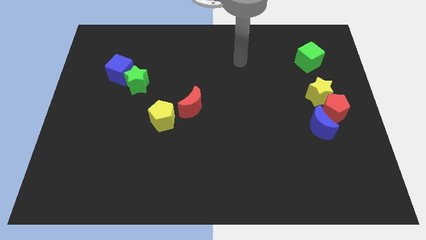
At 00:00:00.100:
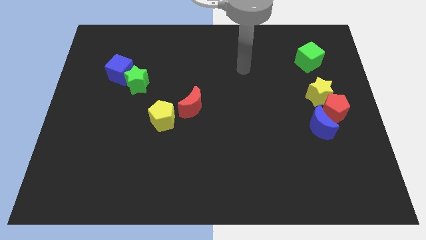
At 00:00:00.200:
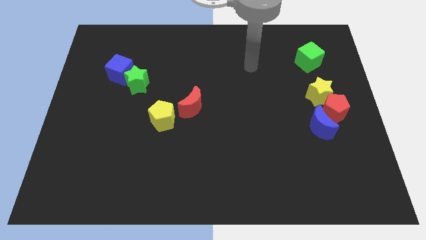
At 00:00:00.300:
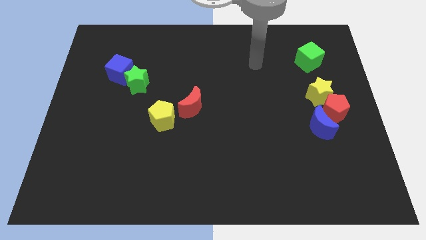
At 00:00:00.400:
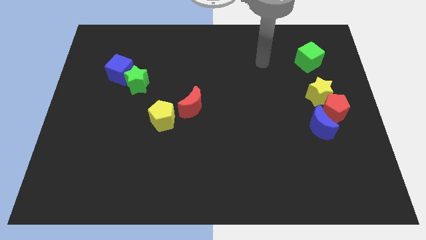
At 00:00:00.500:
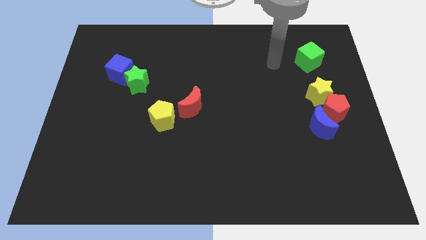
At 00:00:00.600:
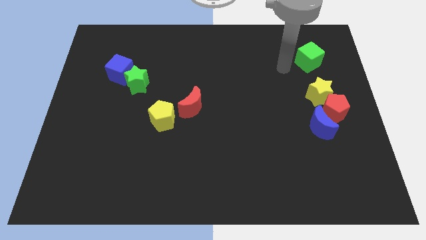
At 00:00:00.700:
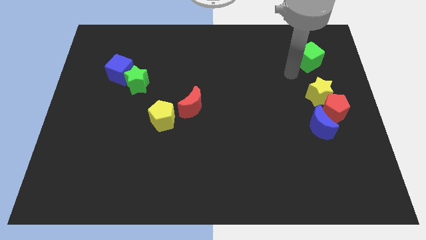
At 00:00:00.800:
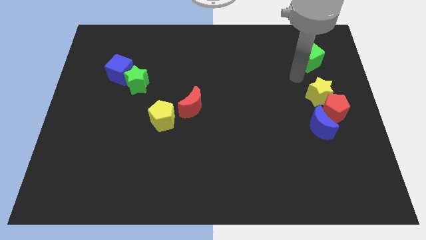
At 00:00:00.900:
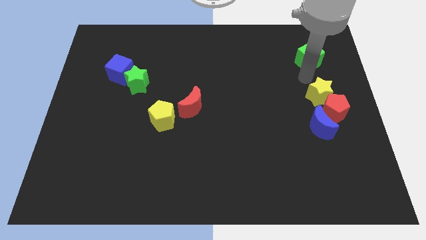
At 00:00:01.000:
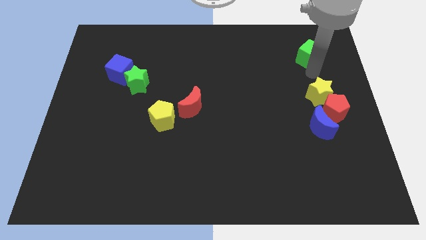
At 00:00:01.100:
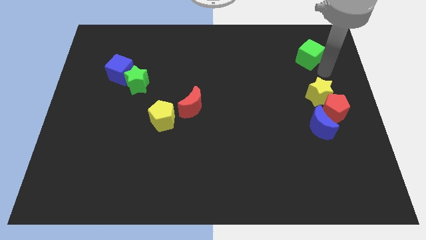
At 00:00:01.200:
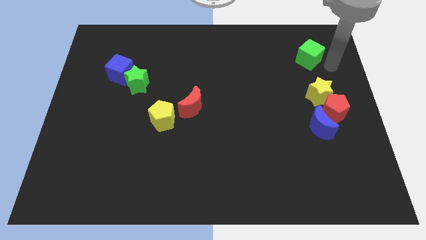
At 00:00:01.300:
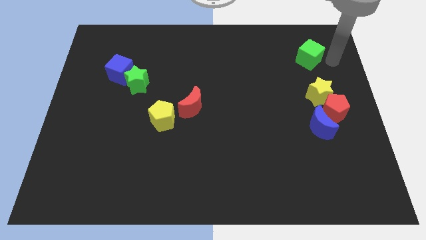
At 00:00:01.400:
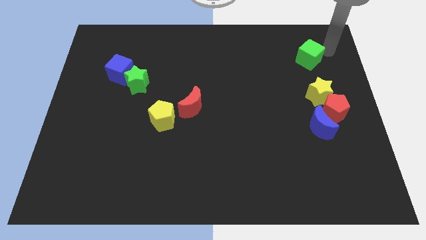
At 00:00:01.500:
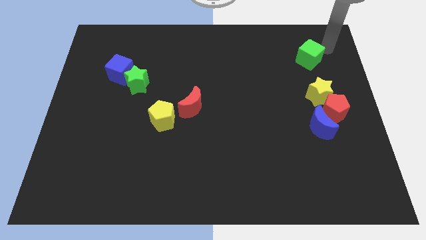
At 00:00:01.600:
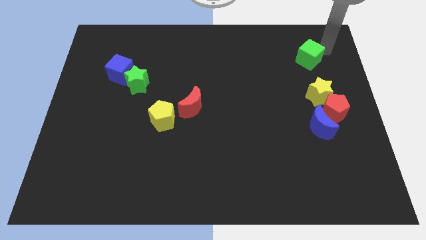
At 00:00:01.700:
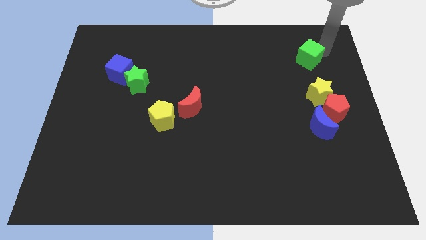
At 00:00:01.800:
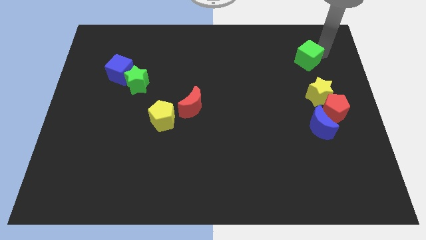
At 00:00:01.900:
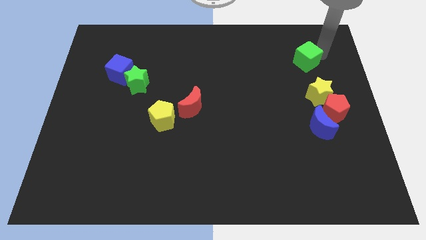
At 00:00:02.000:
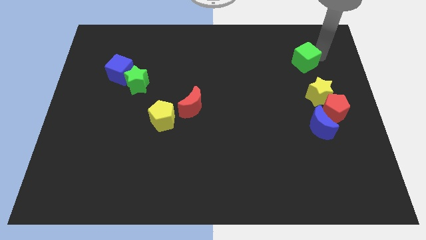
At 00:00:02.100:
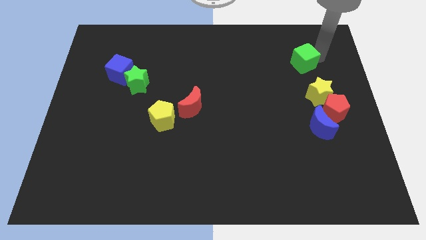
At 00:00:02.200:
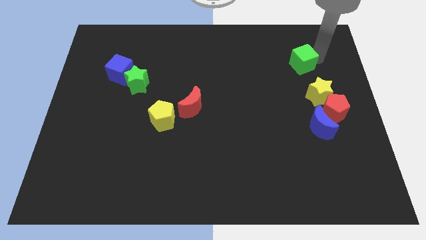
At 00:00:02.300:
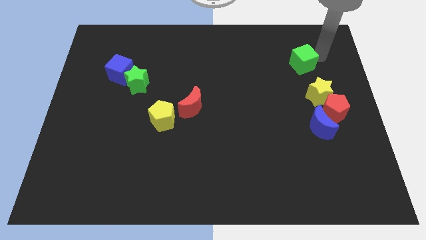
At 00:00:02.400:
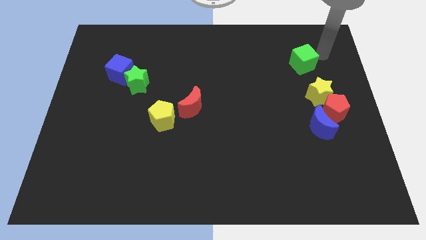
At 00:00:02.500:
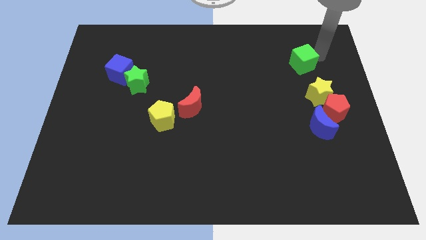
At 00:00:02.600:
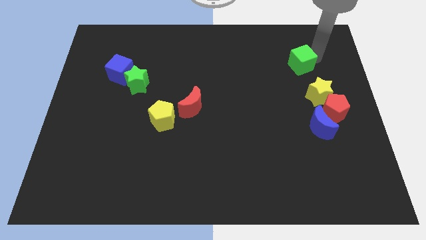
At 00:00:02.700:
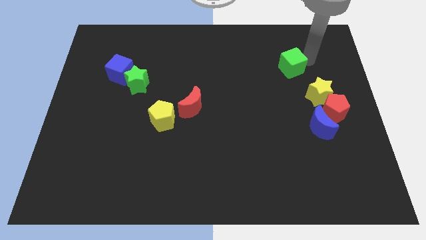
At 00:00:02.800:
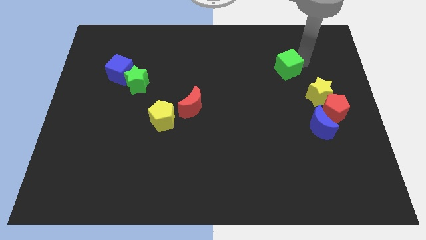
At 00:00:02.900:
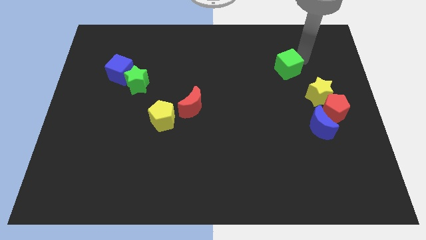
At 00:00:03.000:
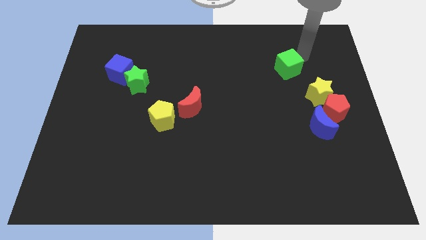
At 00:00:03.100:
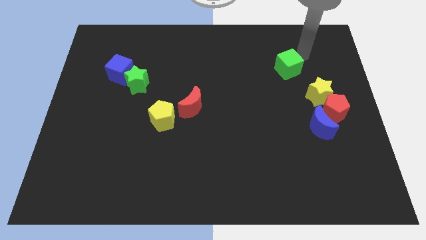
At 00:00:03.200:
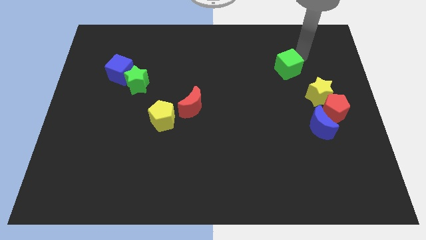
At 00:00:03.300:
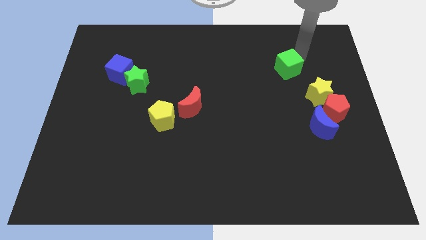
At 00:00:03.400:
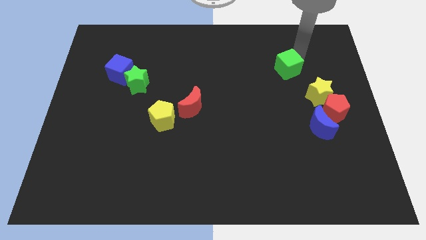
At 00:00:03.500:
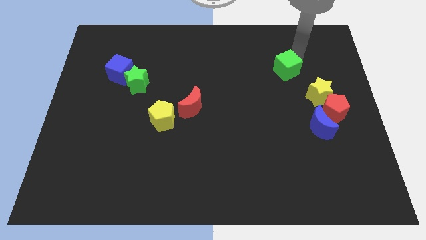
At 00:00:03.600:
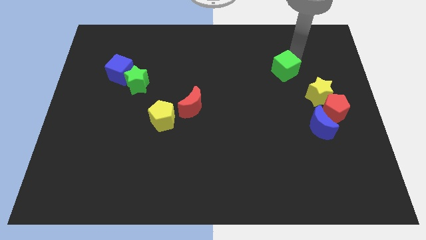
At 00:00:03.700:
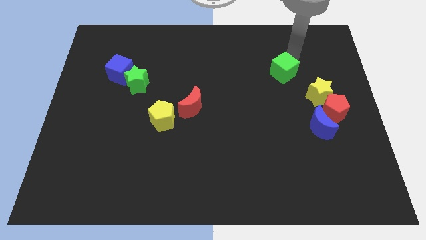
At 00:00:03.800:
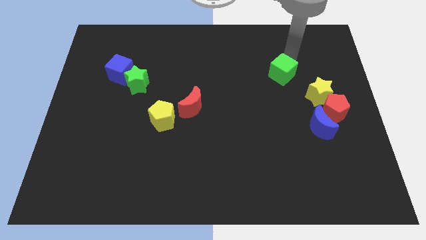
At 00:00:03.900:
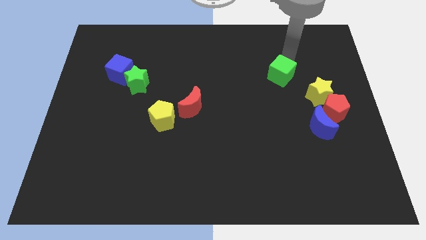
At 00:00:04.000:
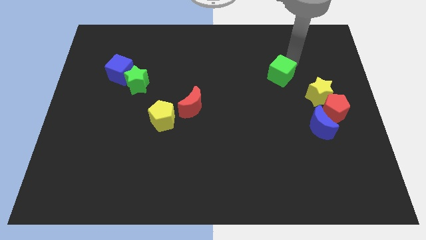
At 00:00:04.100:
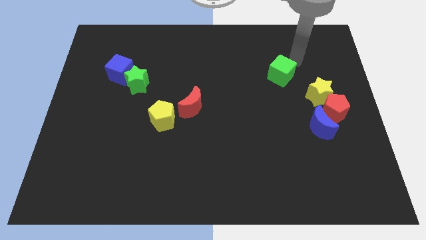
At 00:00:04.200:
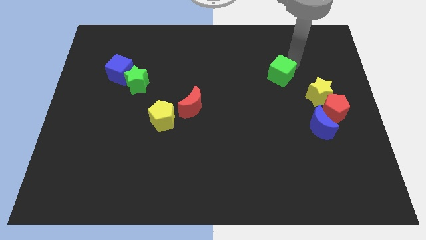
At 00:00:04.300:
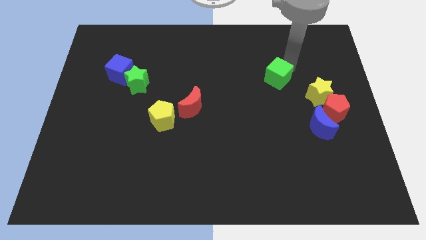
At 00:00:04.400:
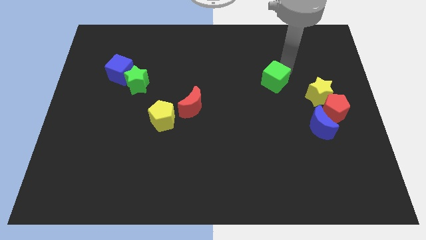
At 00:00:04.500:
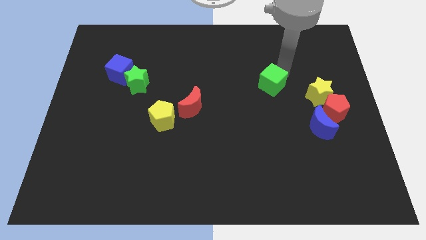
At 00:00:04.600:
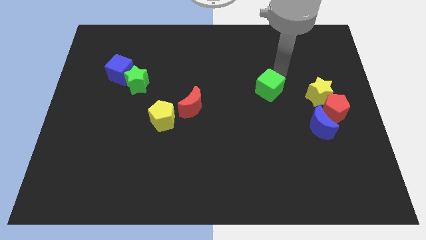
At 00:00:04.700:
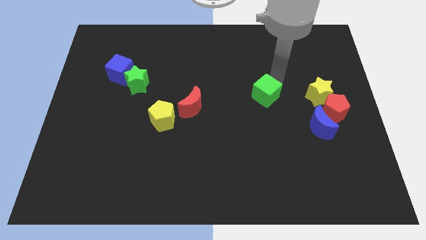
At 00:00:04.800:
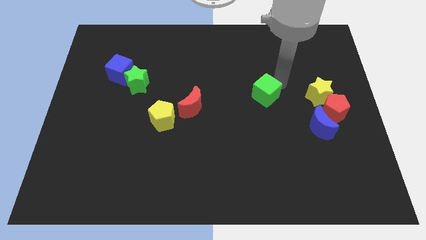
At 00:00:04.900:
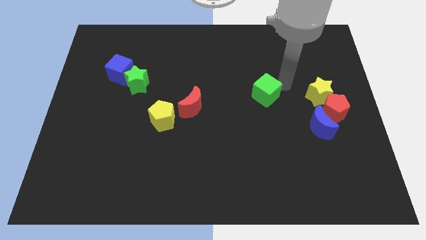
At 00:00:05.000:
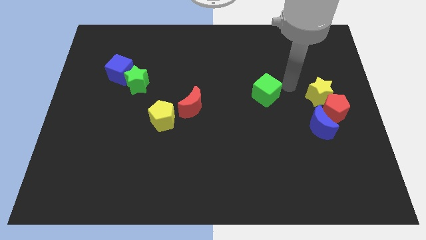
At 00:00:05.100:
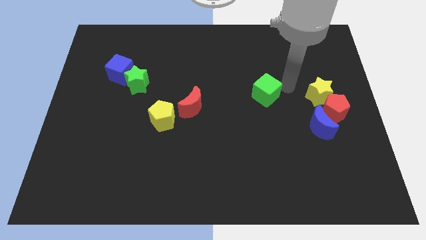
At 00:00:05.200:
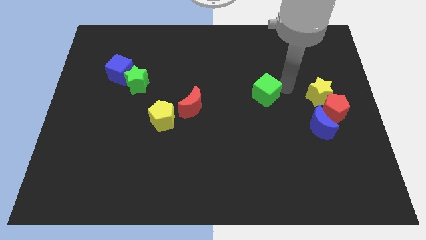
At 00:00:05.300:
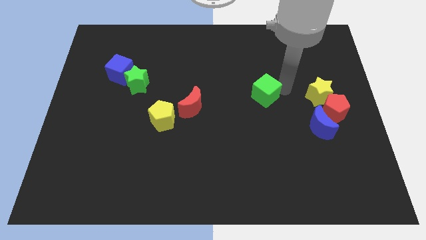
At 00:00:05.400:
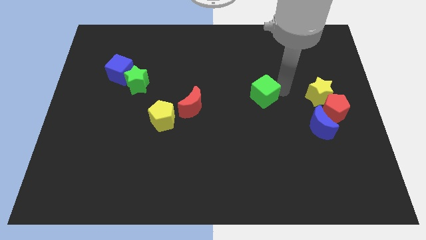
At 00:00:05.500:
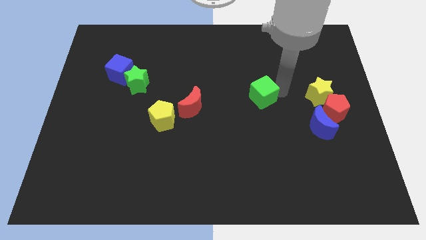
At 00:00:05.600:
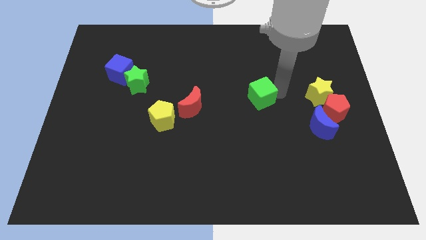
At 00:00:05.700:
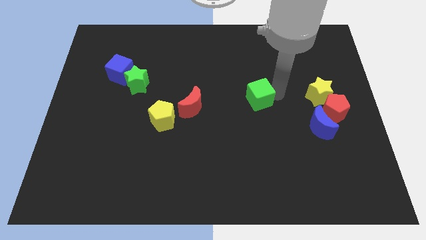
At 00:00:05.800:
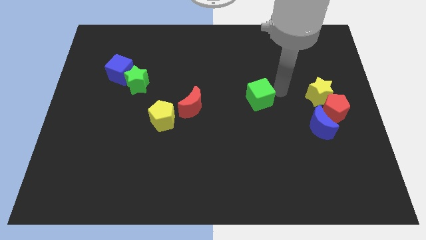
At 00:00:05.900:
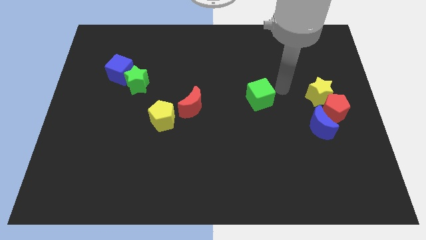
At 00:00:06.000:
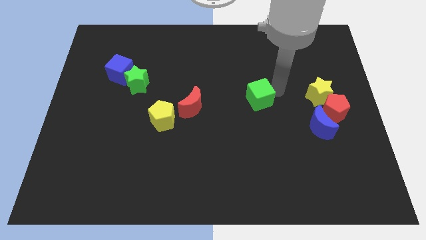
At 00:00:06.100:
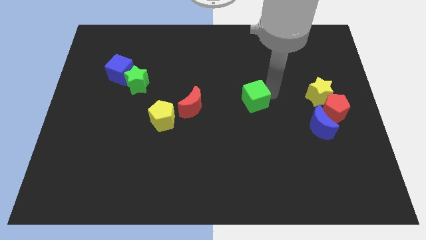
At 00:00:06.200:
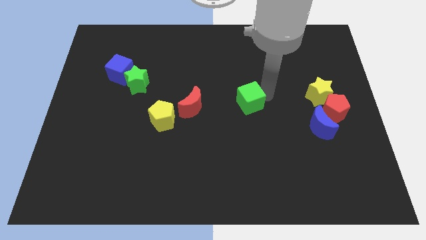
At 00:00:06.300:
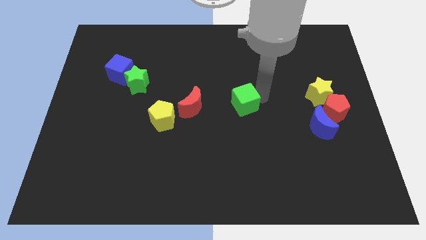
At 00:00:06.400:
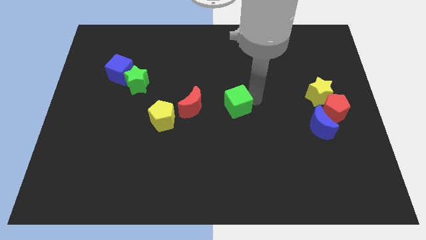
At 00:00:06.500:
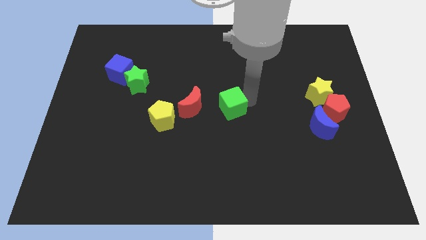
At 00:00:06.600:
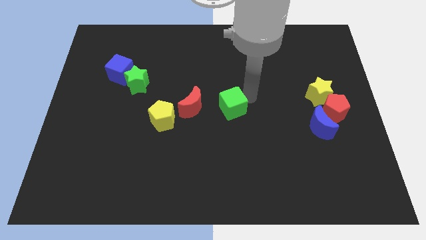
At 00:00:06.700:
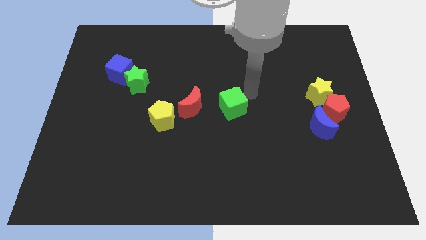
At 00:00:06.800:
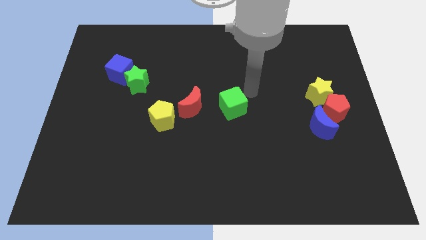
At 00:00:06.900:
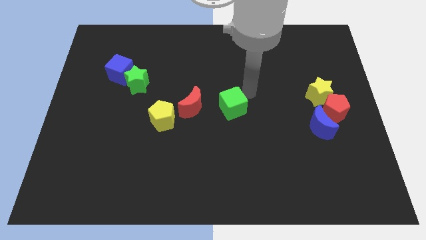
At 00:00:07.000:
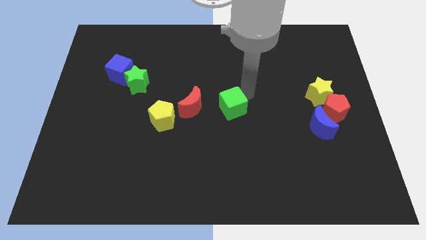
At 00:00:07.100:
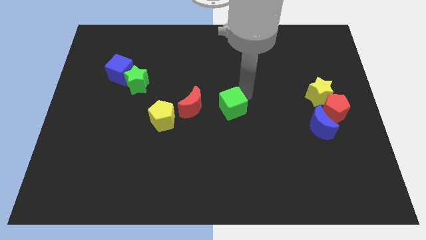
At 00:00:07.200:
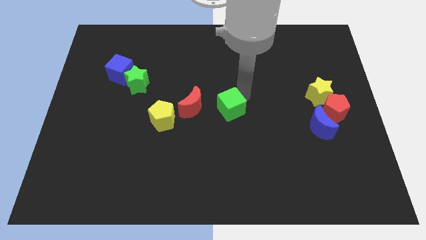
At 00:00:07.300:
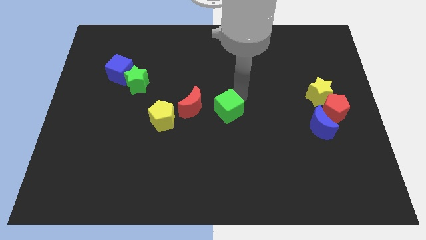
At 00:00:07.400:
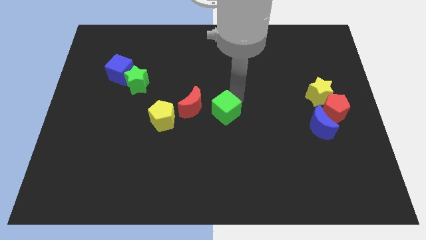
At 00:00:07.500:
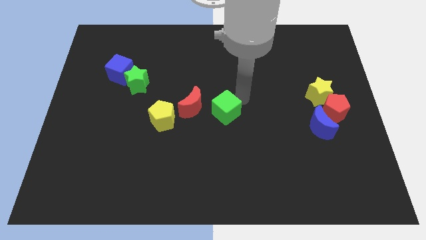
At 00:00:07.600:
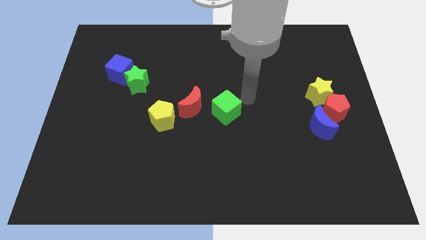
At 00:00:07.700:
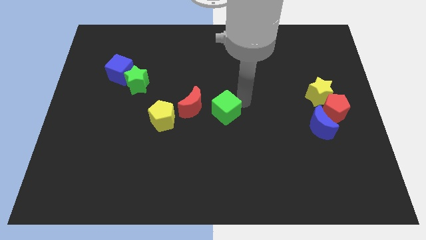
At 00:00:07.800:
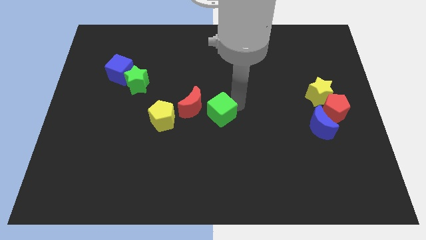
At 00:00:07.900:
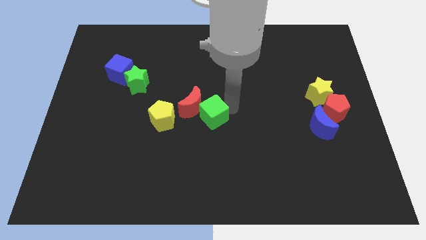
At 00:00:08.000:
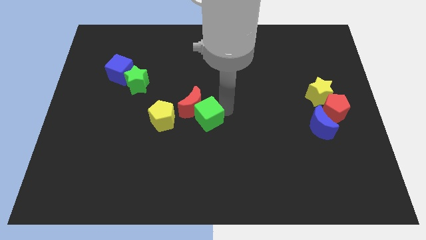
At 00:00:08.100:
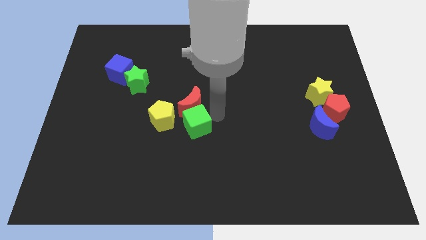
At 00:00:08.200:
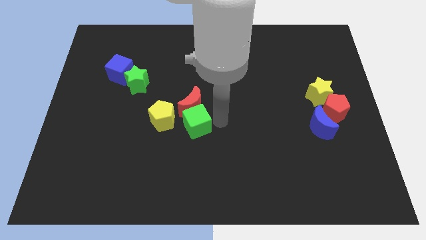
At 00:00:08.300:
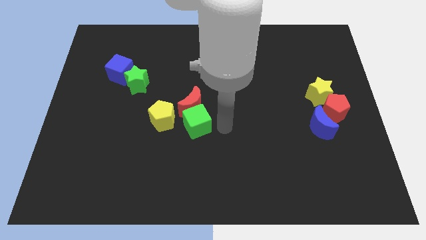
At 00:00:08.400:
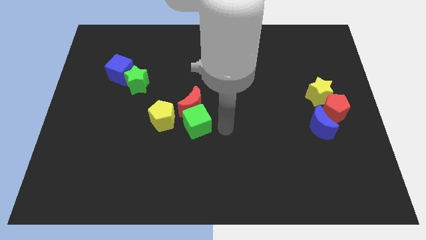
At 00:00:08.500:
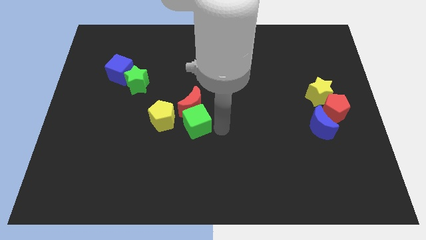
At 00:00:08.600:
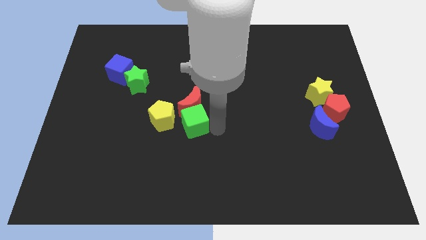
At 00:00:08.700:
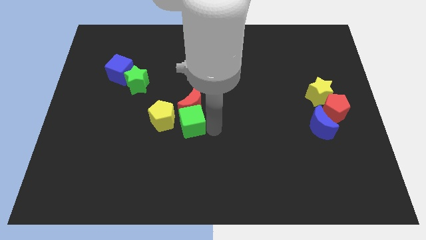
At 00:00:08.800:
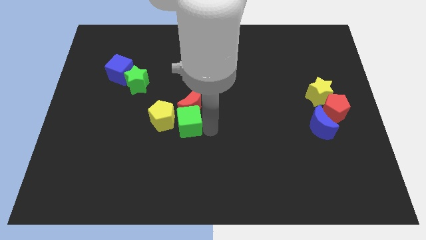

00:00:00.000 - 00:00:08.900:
move the green cube towards the yellow pentagon
